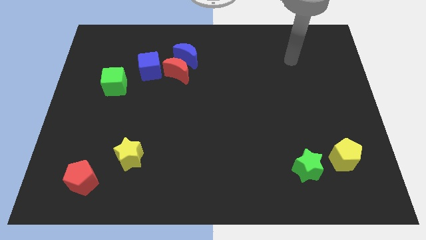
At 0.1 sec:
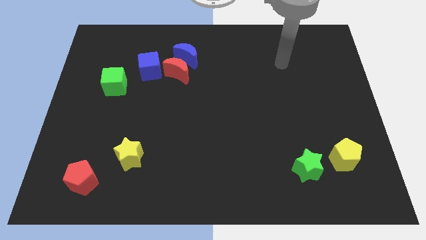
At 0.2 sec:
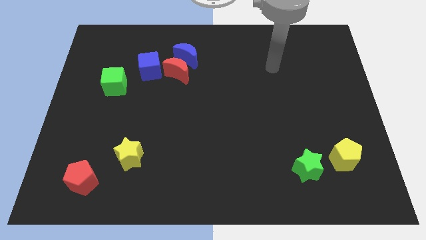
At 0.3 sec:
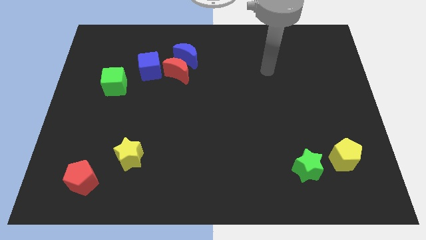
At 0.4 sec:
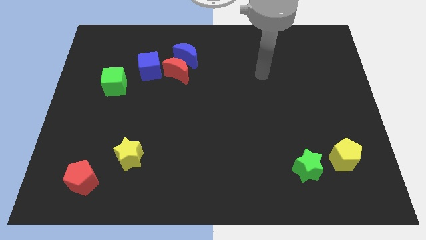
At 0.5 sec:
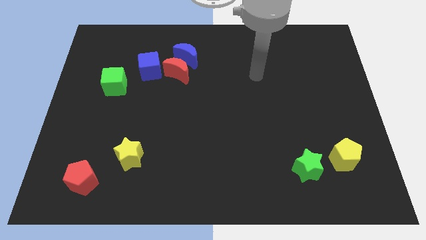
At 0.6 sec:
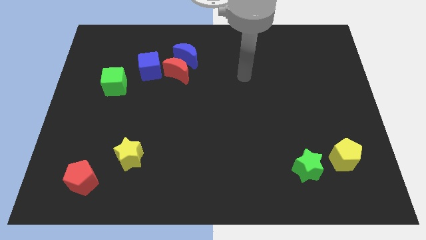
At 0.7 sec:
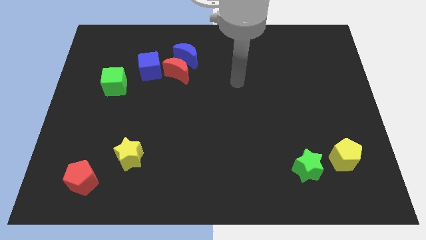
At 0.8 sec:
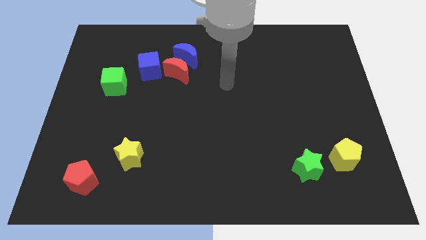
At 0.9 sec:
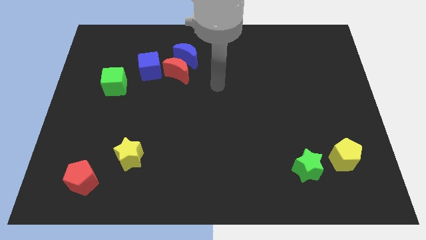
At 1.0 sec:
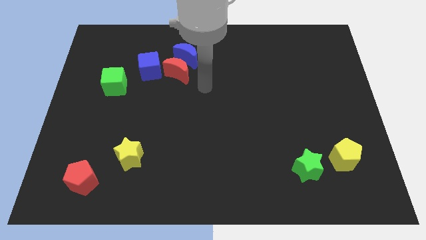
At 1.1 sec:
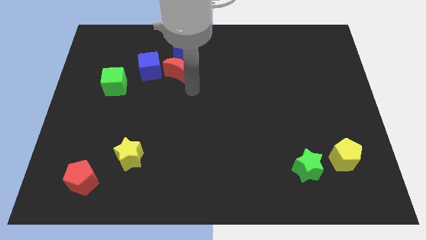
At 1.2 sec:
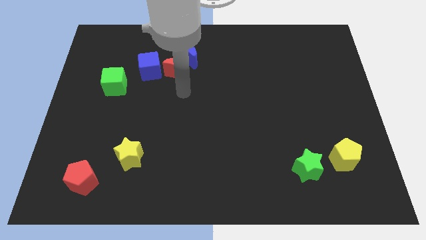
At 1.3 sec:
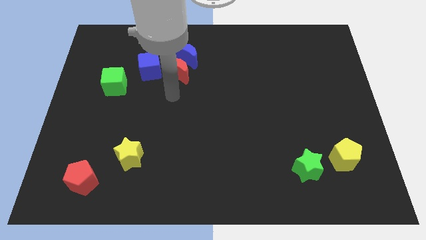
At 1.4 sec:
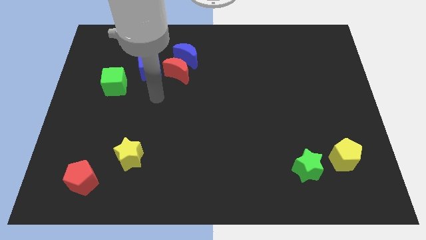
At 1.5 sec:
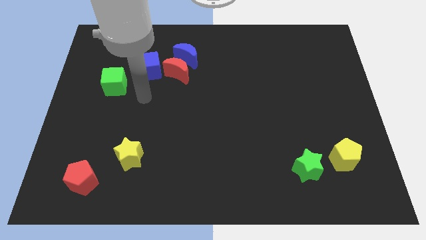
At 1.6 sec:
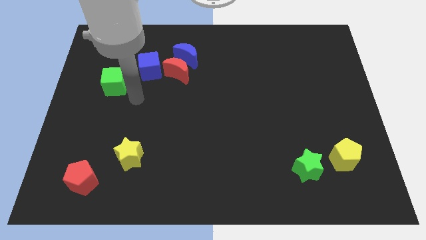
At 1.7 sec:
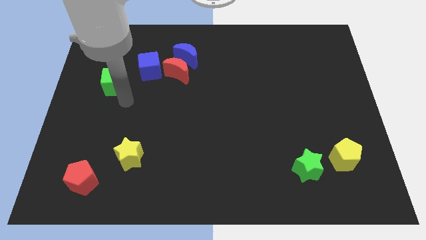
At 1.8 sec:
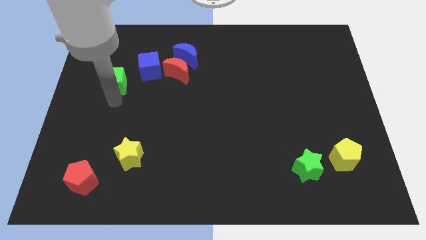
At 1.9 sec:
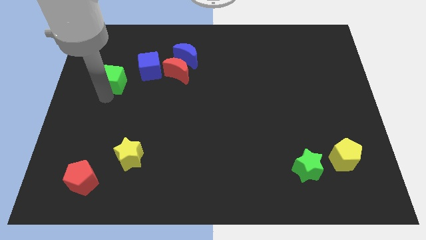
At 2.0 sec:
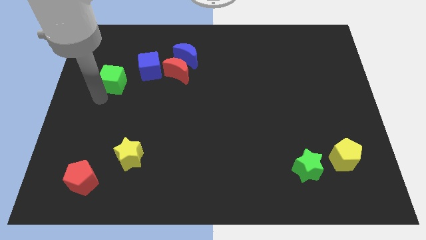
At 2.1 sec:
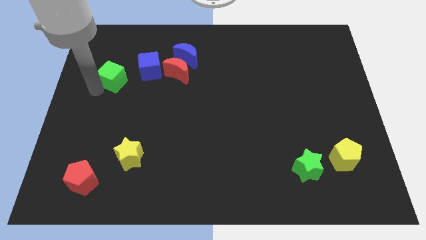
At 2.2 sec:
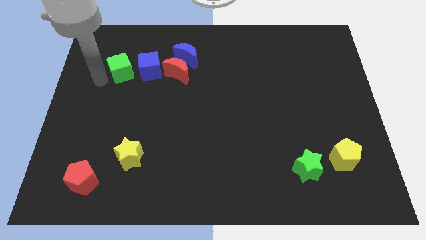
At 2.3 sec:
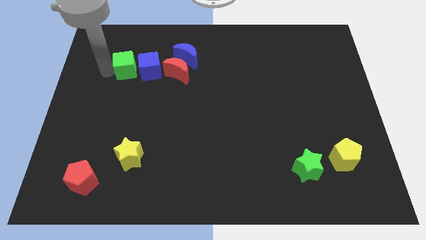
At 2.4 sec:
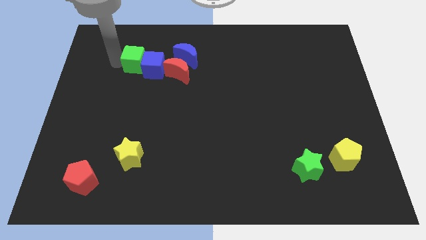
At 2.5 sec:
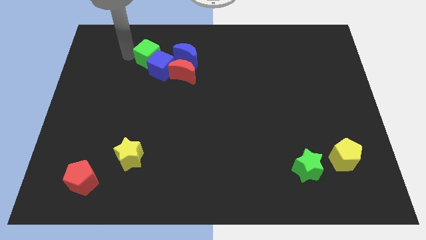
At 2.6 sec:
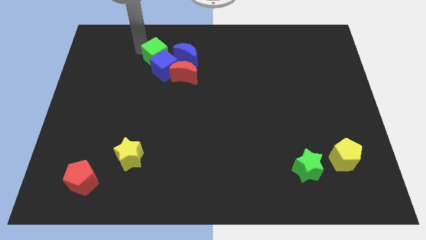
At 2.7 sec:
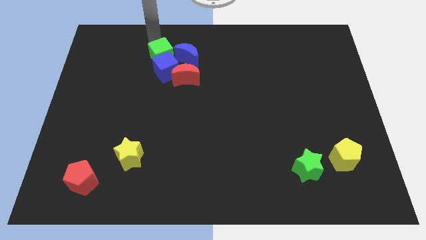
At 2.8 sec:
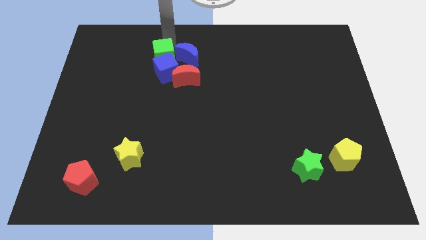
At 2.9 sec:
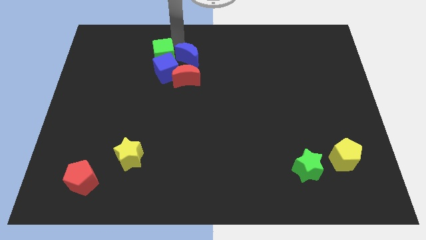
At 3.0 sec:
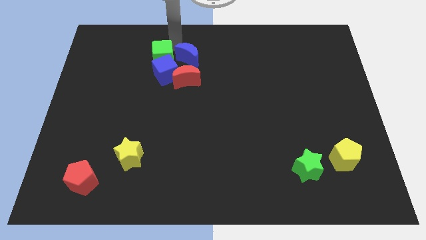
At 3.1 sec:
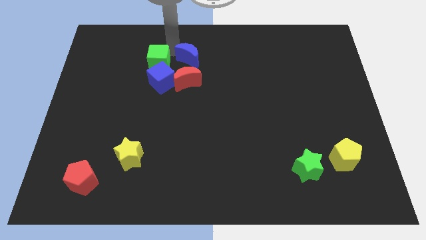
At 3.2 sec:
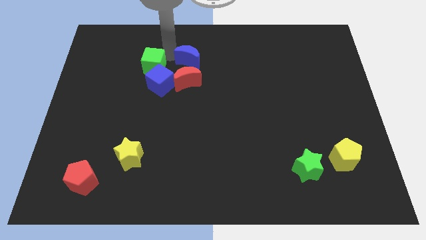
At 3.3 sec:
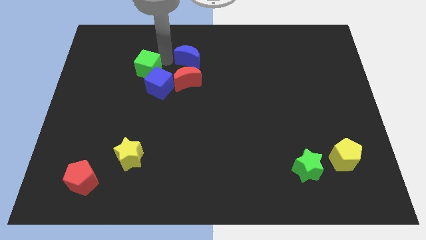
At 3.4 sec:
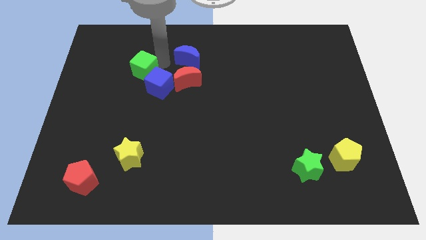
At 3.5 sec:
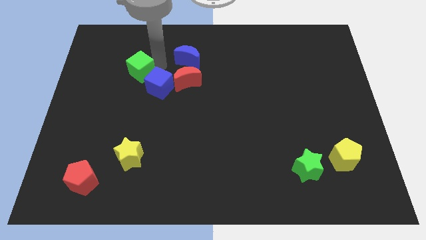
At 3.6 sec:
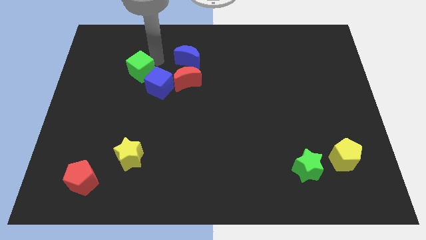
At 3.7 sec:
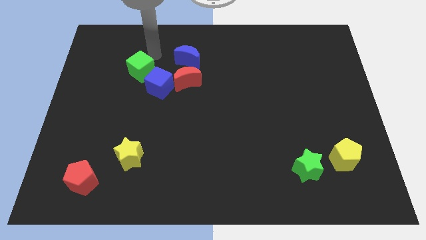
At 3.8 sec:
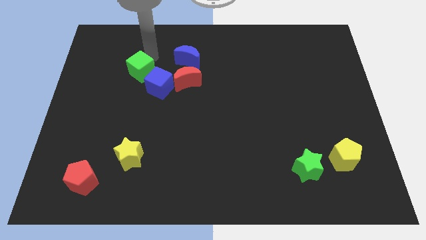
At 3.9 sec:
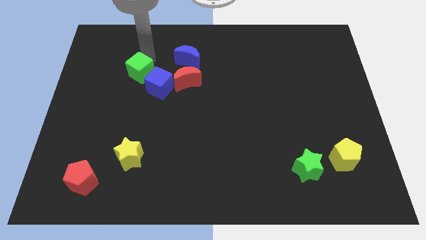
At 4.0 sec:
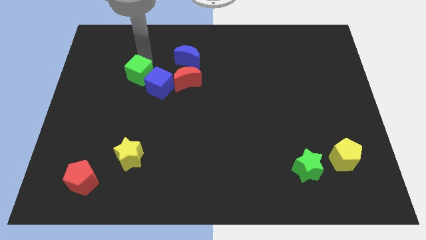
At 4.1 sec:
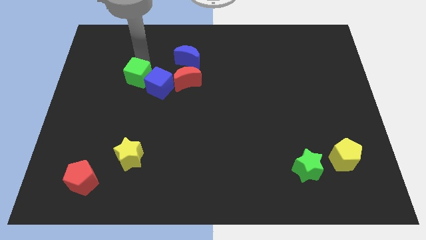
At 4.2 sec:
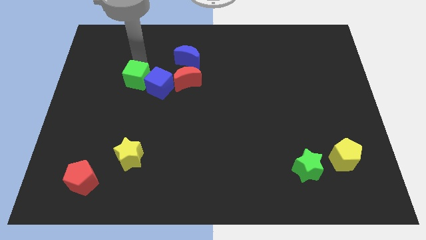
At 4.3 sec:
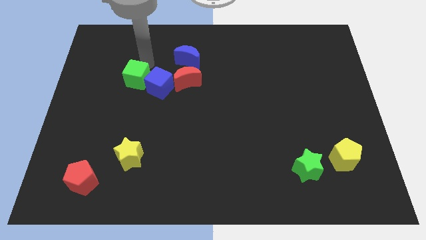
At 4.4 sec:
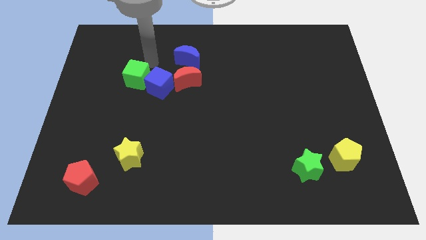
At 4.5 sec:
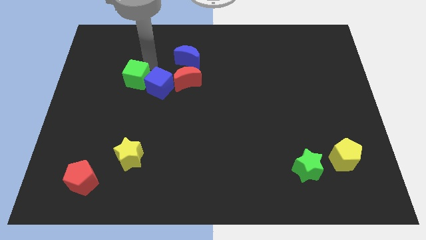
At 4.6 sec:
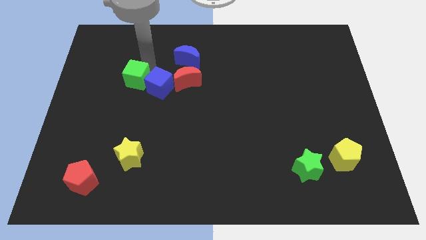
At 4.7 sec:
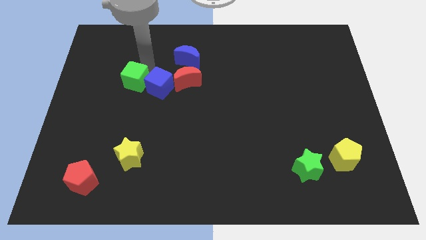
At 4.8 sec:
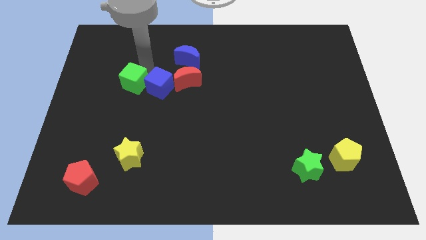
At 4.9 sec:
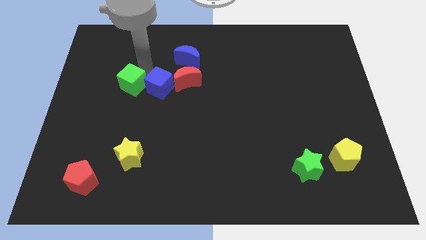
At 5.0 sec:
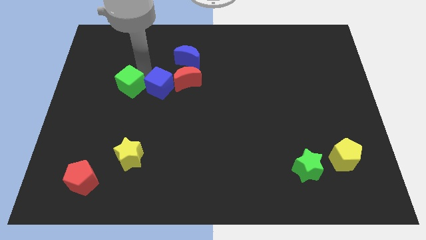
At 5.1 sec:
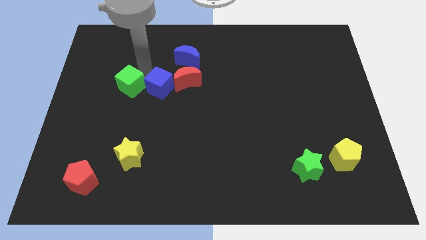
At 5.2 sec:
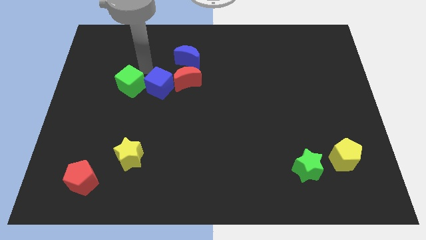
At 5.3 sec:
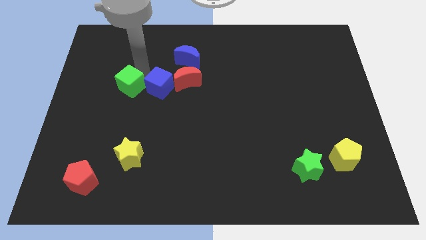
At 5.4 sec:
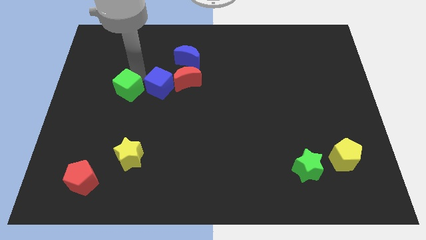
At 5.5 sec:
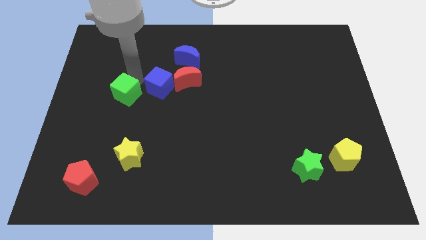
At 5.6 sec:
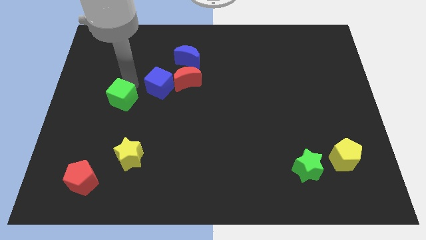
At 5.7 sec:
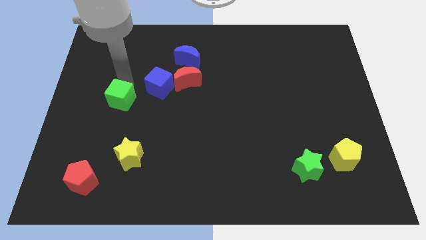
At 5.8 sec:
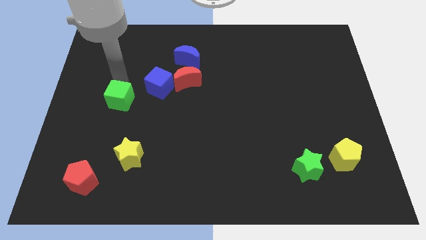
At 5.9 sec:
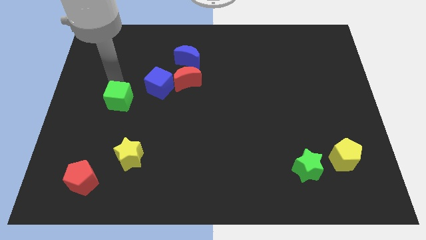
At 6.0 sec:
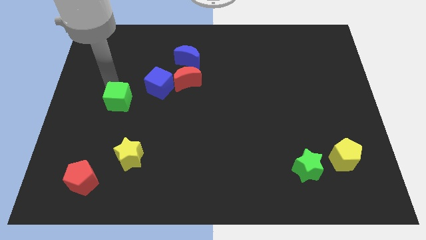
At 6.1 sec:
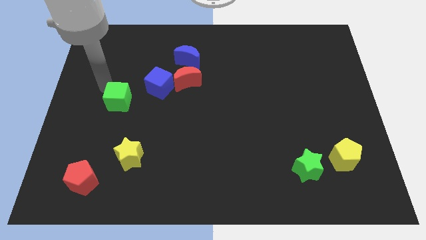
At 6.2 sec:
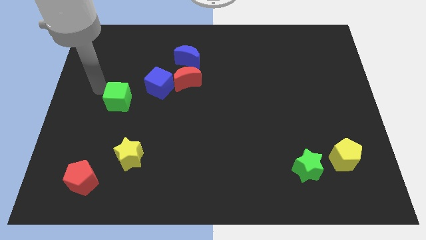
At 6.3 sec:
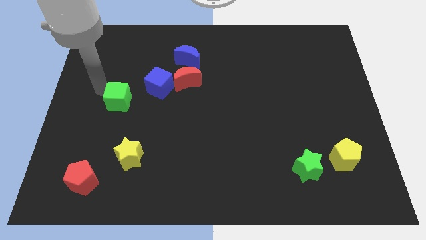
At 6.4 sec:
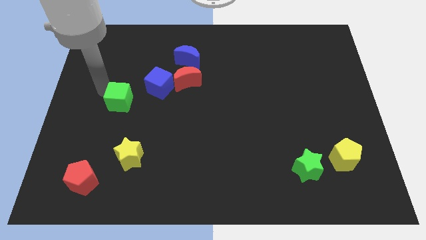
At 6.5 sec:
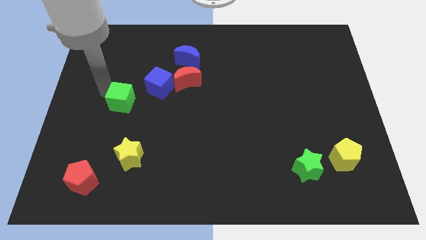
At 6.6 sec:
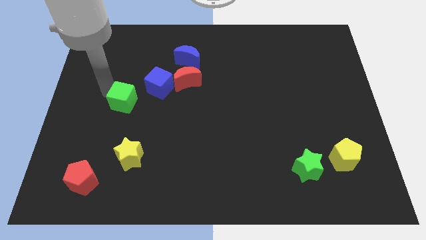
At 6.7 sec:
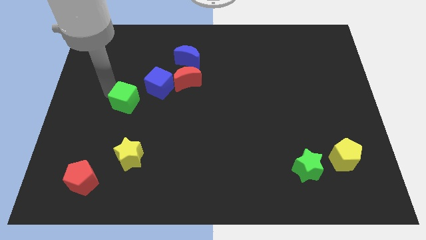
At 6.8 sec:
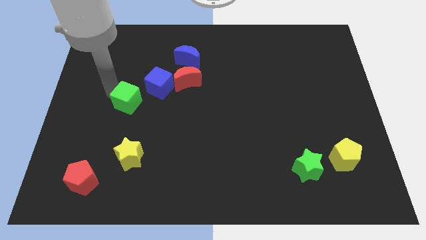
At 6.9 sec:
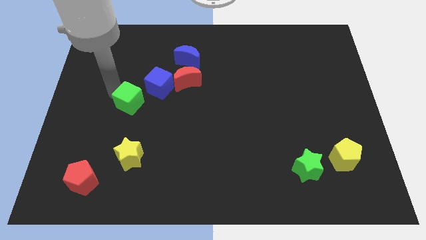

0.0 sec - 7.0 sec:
push the green cube a little diagonally down and to the right

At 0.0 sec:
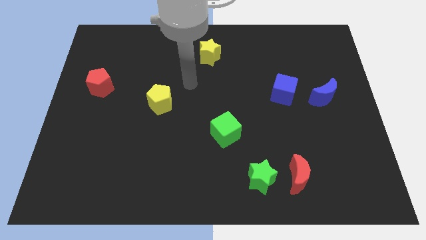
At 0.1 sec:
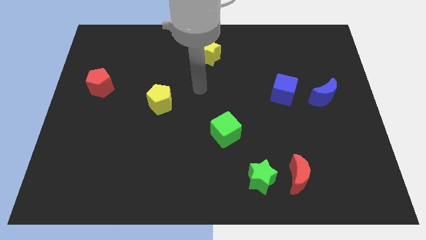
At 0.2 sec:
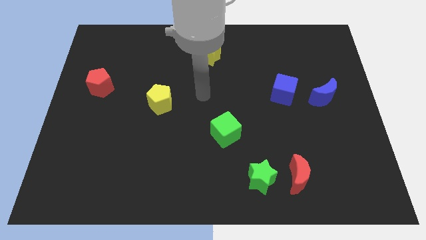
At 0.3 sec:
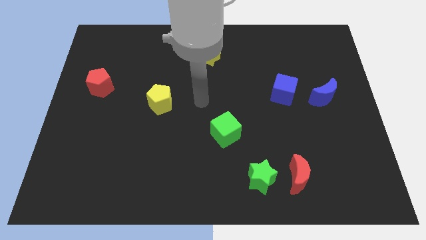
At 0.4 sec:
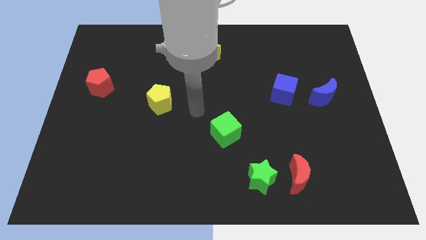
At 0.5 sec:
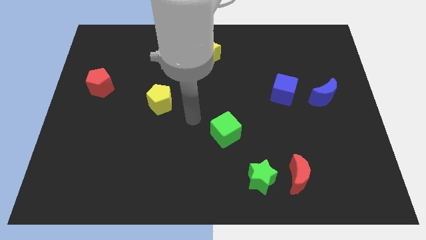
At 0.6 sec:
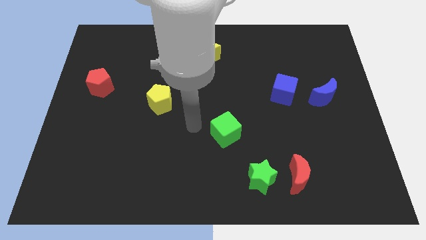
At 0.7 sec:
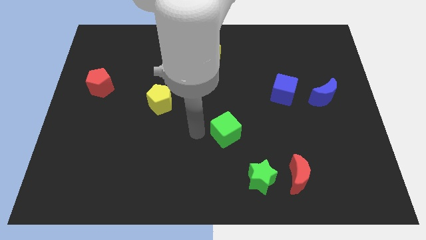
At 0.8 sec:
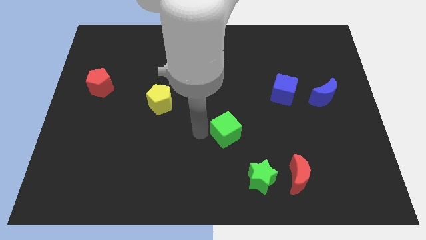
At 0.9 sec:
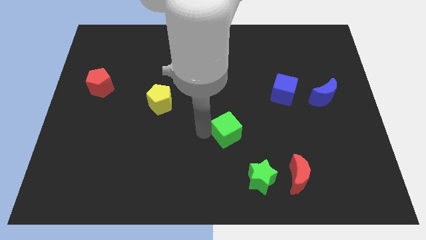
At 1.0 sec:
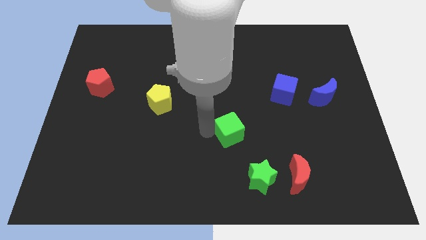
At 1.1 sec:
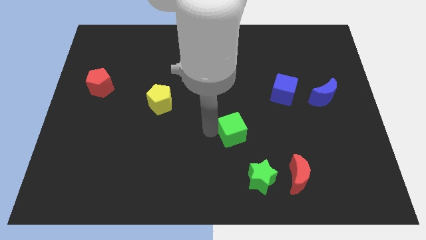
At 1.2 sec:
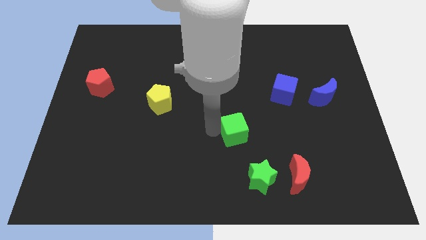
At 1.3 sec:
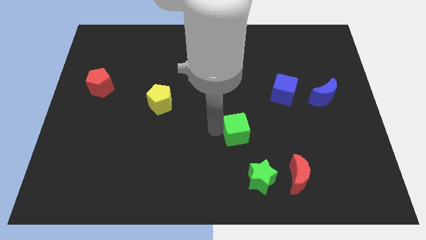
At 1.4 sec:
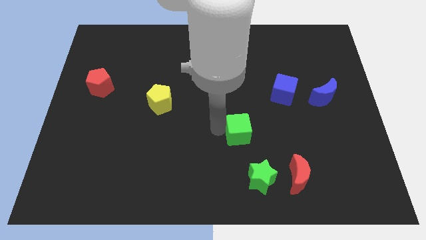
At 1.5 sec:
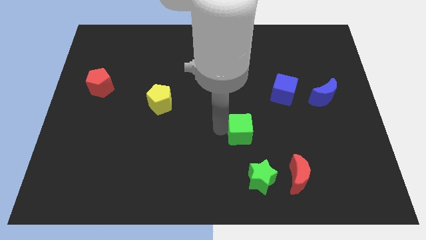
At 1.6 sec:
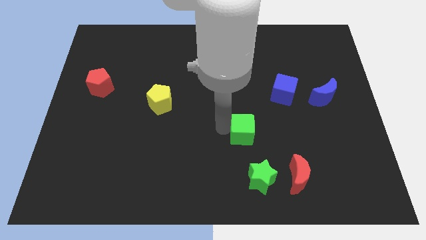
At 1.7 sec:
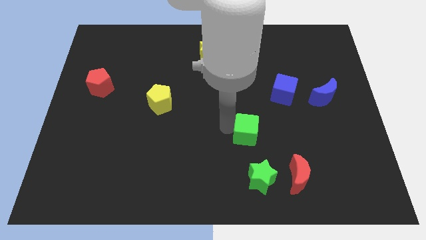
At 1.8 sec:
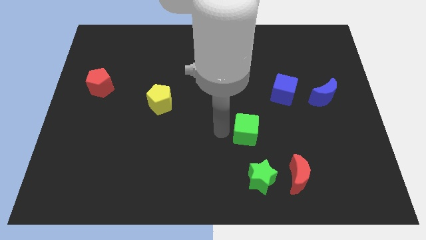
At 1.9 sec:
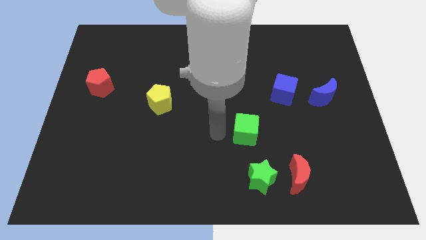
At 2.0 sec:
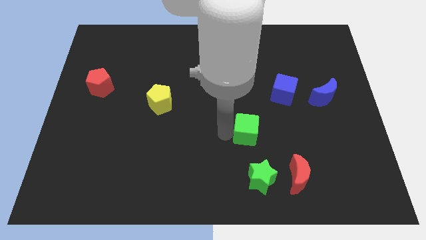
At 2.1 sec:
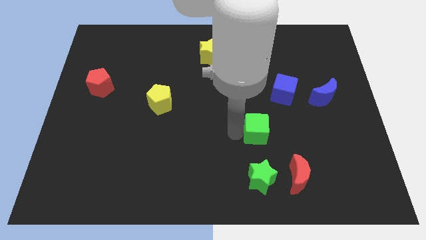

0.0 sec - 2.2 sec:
slightly slide the green cube to the right
